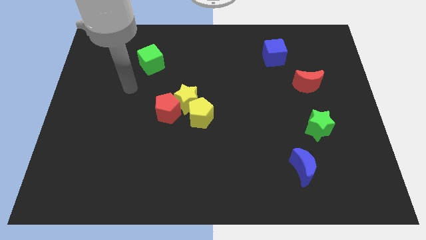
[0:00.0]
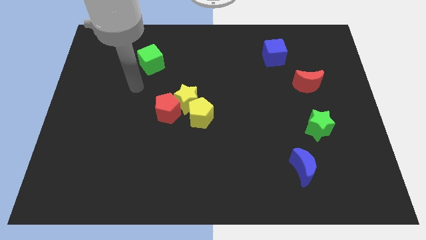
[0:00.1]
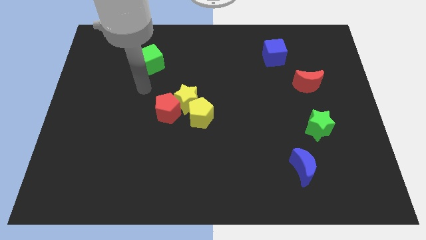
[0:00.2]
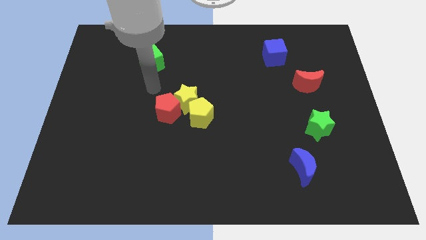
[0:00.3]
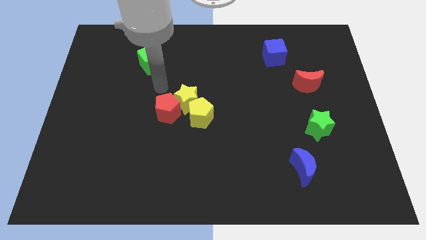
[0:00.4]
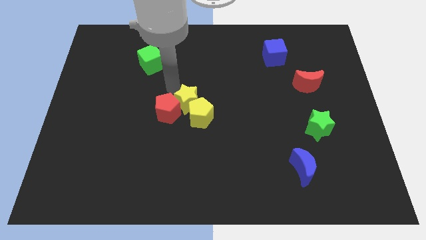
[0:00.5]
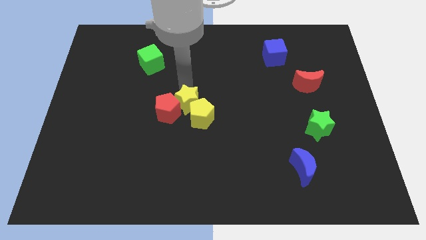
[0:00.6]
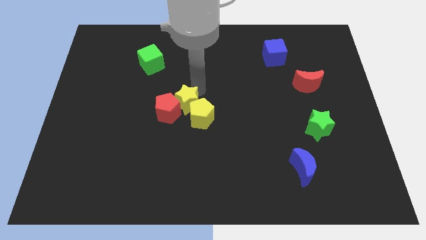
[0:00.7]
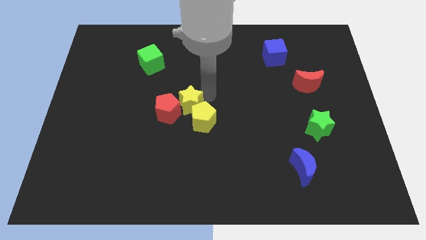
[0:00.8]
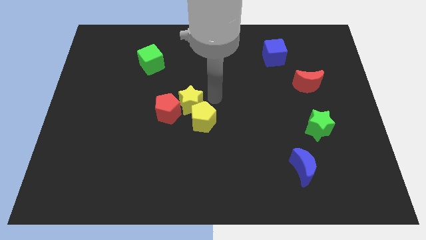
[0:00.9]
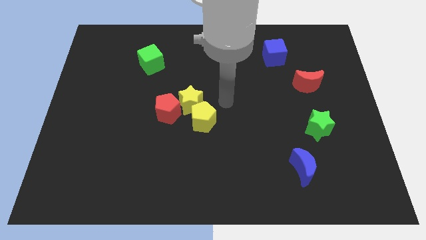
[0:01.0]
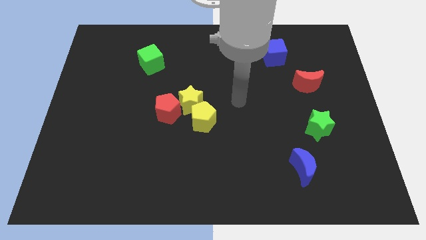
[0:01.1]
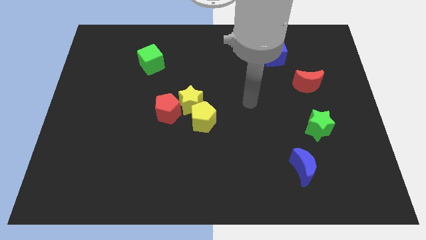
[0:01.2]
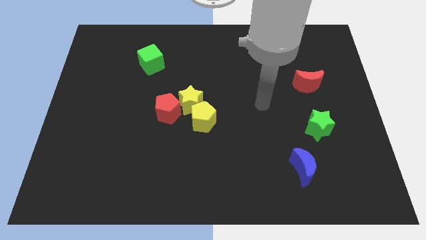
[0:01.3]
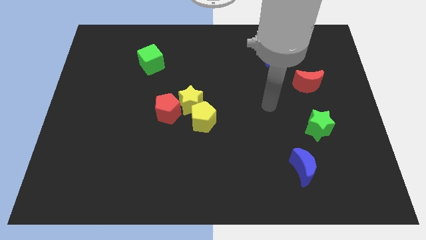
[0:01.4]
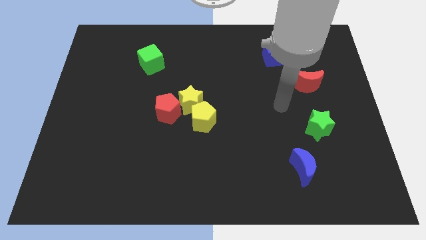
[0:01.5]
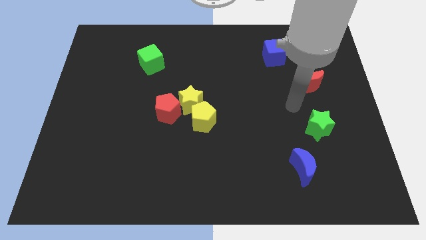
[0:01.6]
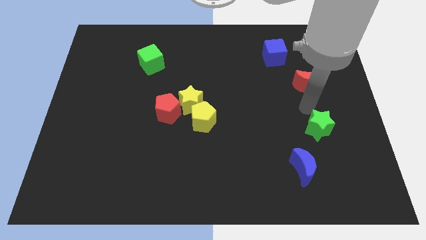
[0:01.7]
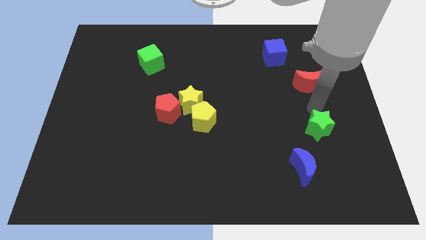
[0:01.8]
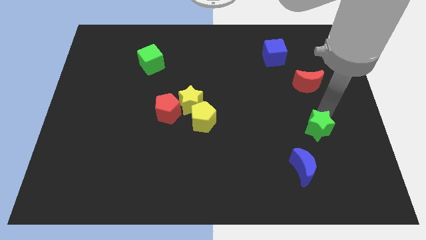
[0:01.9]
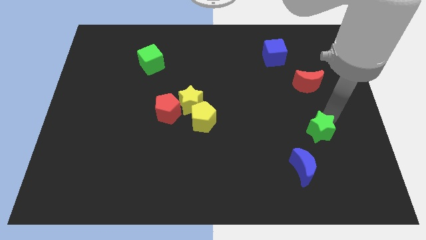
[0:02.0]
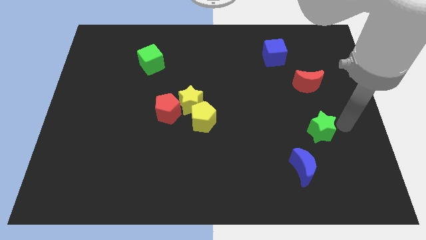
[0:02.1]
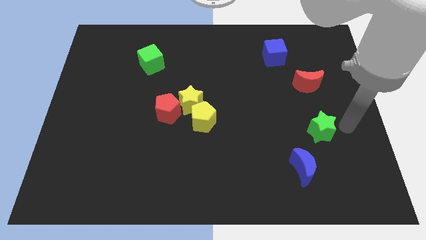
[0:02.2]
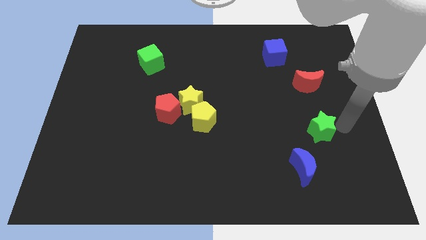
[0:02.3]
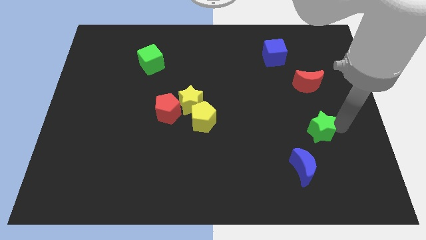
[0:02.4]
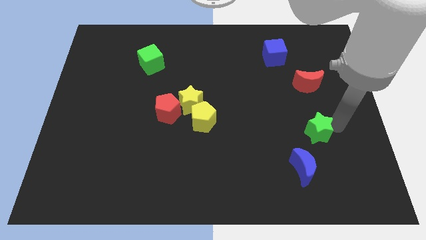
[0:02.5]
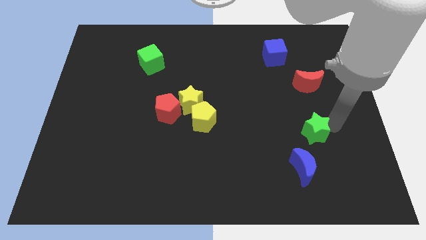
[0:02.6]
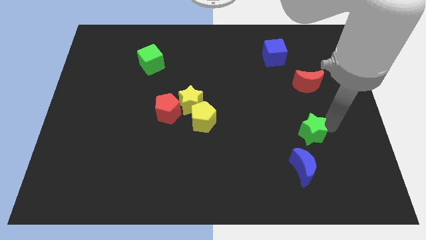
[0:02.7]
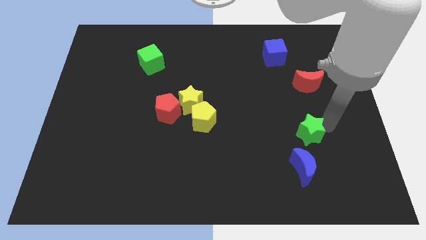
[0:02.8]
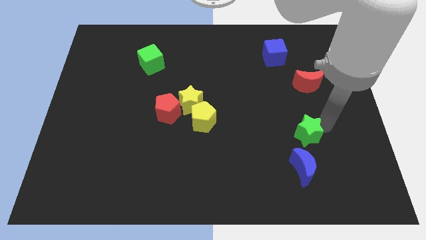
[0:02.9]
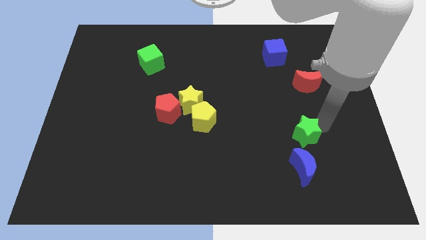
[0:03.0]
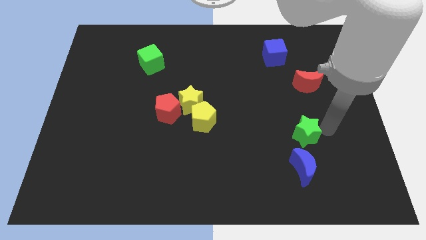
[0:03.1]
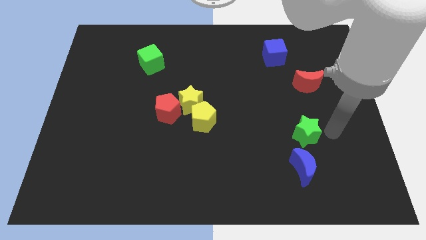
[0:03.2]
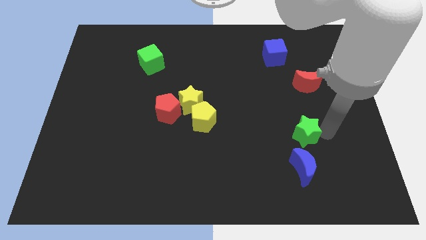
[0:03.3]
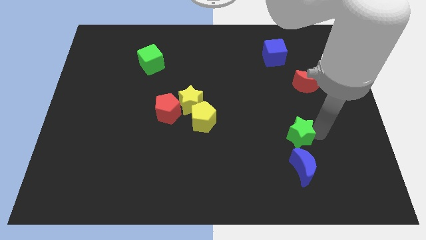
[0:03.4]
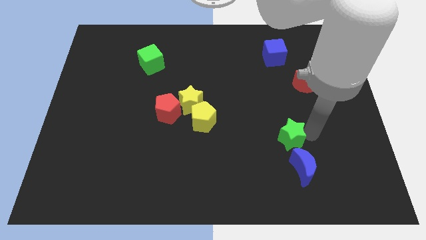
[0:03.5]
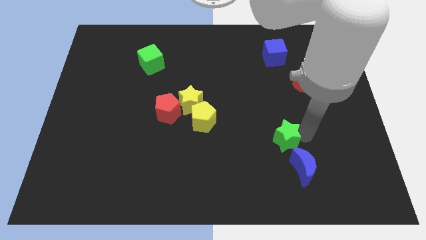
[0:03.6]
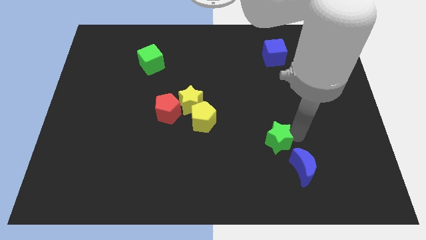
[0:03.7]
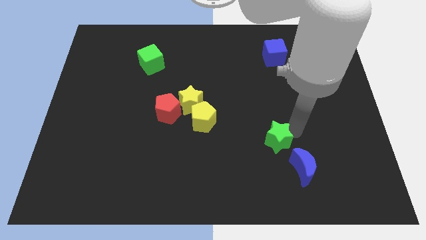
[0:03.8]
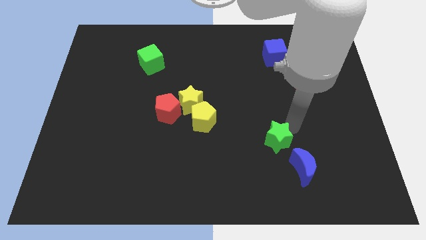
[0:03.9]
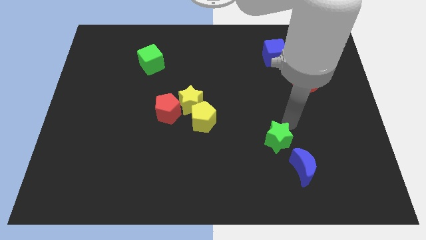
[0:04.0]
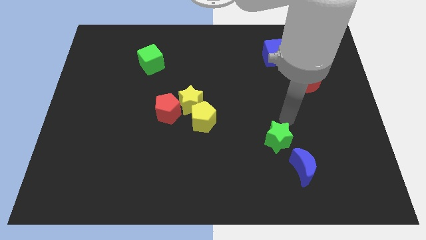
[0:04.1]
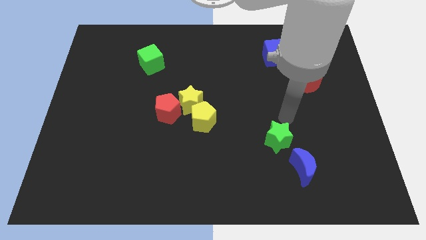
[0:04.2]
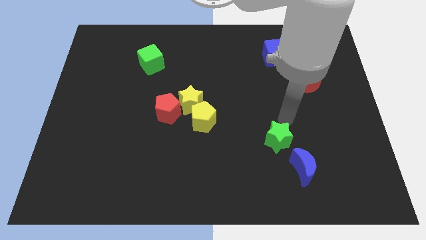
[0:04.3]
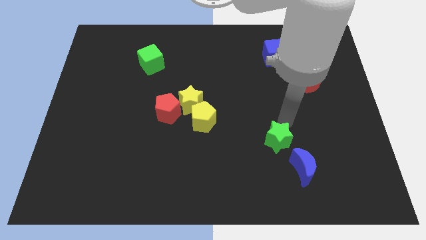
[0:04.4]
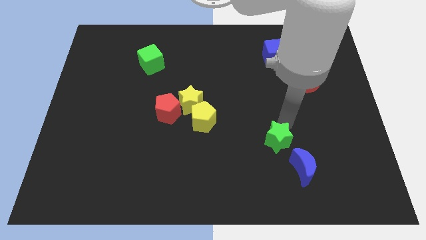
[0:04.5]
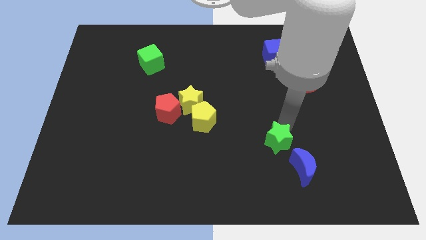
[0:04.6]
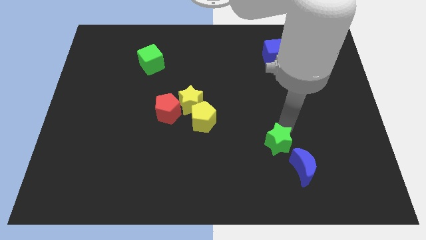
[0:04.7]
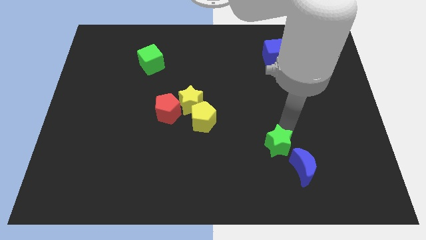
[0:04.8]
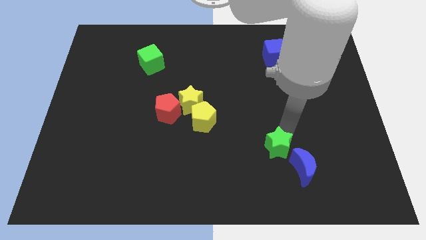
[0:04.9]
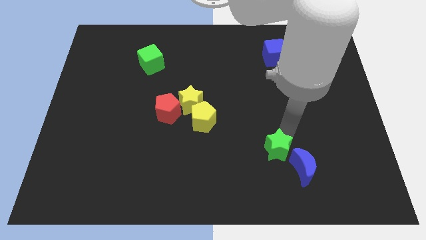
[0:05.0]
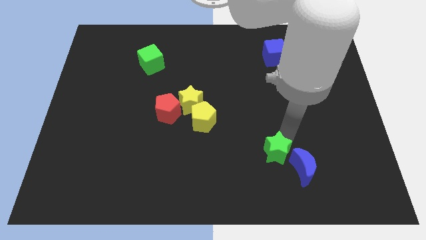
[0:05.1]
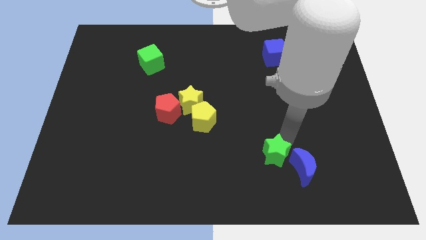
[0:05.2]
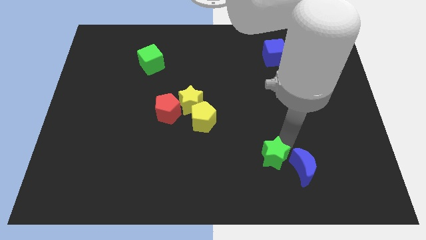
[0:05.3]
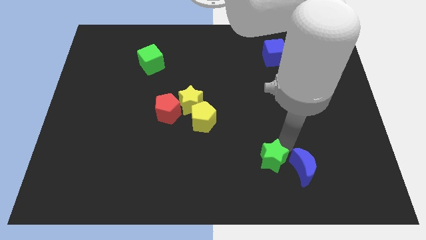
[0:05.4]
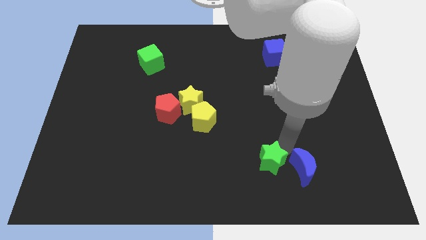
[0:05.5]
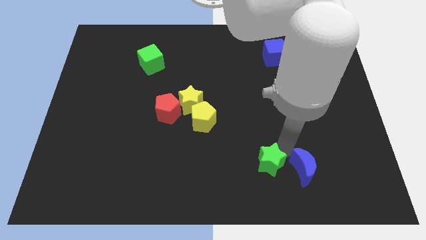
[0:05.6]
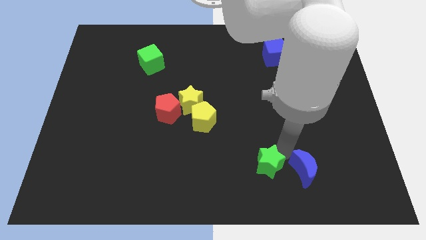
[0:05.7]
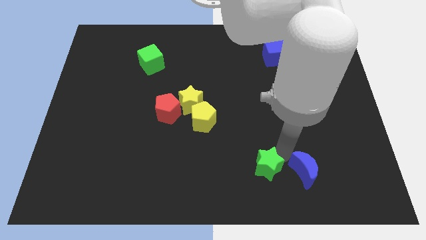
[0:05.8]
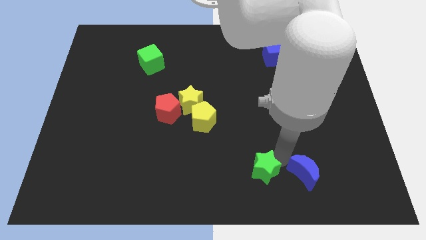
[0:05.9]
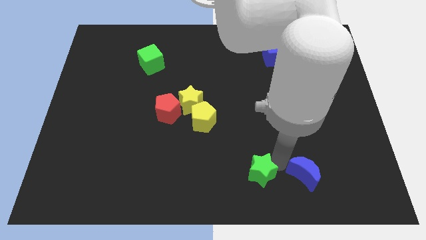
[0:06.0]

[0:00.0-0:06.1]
slide the green star to the bottom

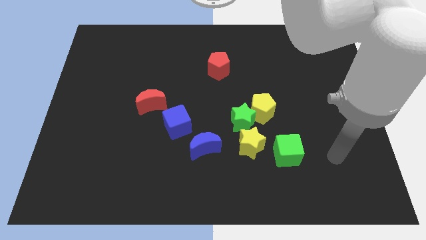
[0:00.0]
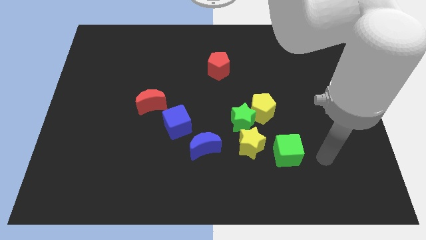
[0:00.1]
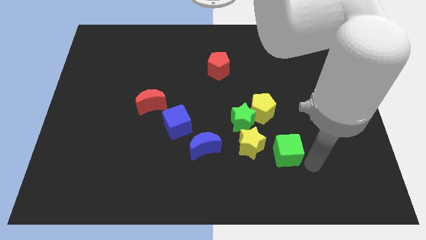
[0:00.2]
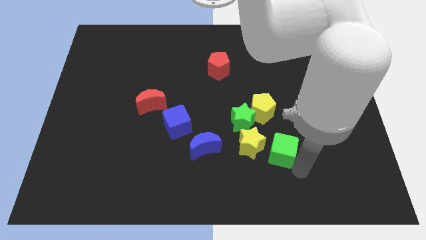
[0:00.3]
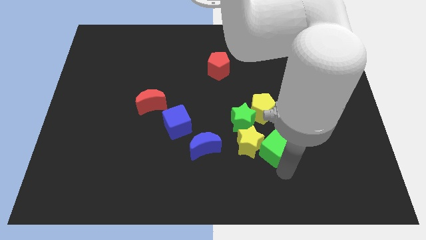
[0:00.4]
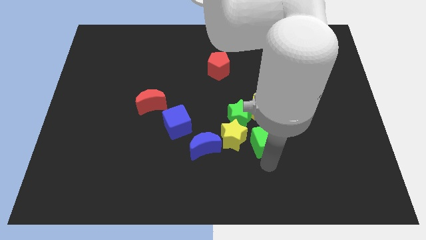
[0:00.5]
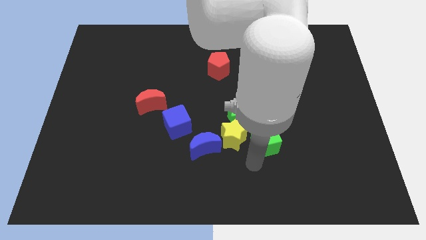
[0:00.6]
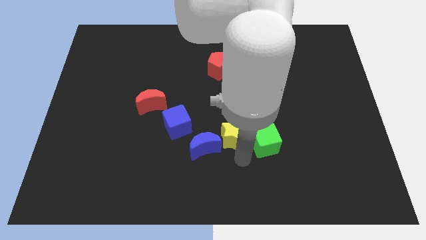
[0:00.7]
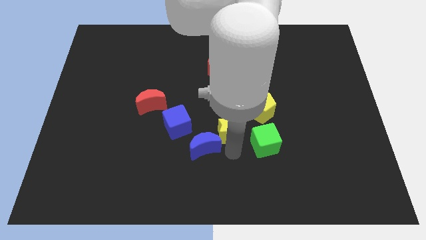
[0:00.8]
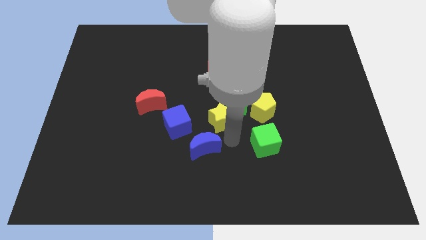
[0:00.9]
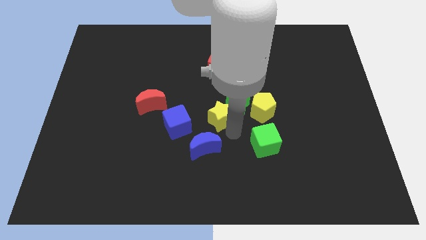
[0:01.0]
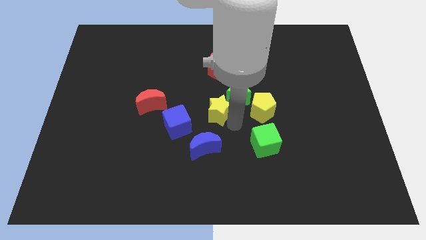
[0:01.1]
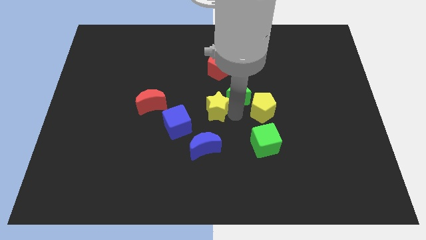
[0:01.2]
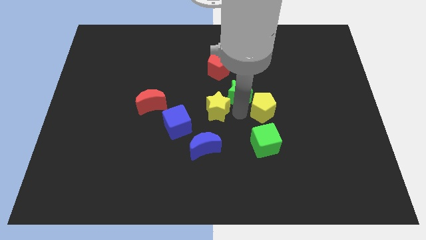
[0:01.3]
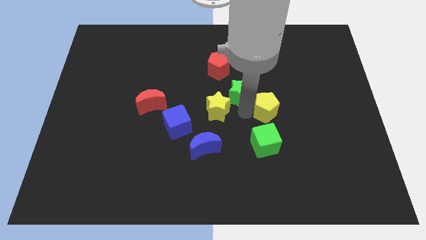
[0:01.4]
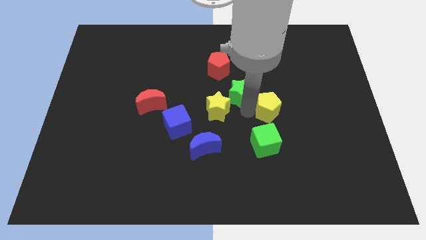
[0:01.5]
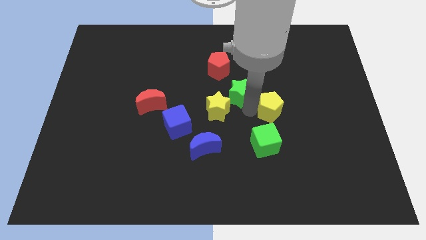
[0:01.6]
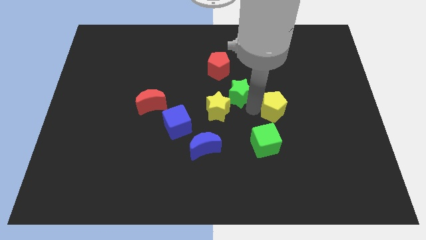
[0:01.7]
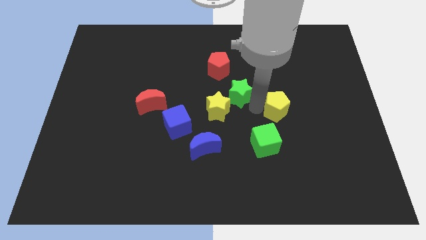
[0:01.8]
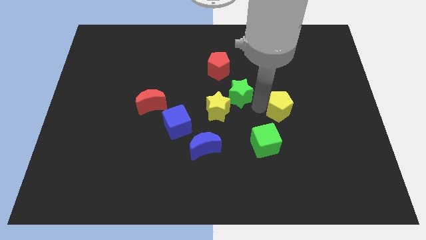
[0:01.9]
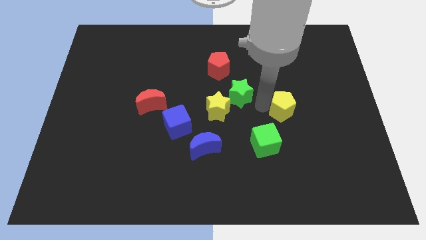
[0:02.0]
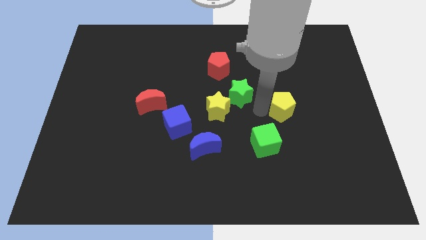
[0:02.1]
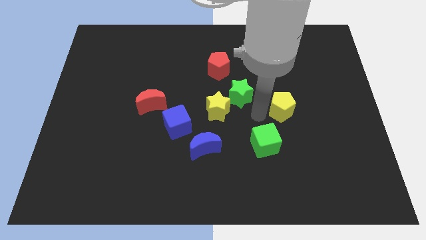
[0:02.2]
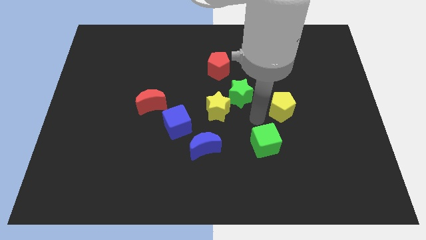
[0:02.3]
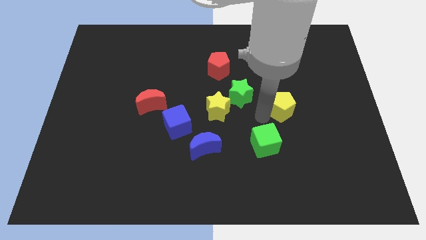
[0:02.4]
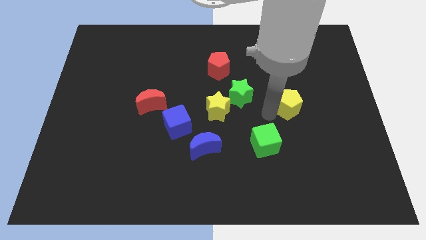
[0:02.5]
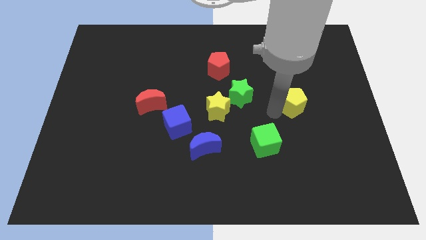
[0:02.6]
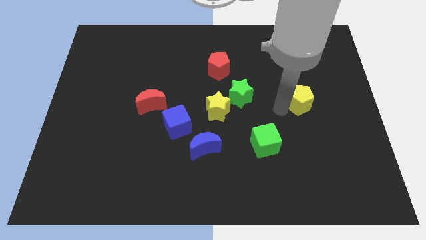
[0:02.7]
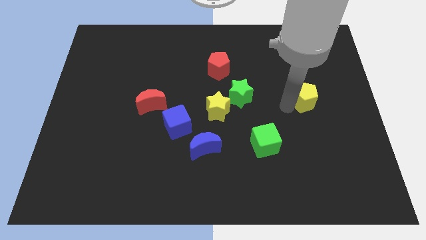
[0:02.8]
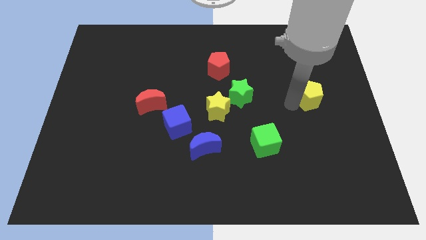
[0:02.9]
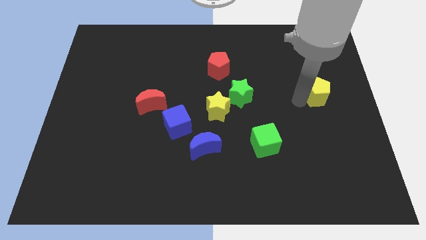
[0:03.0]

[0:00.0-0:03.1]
slide the yellow pentagon to the center right
